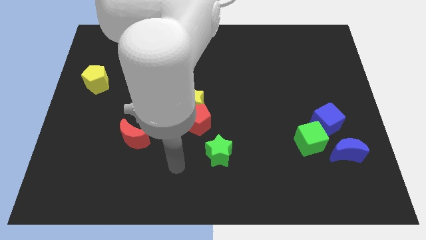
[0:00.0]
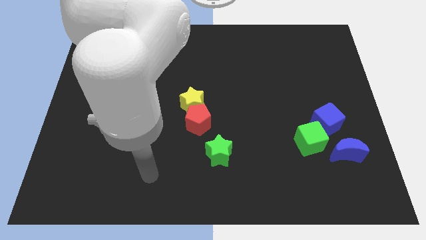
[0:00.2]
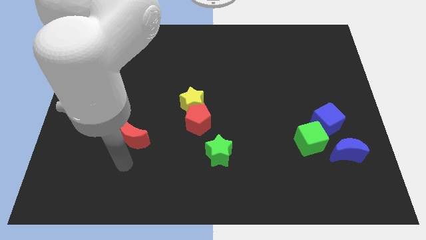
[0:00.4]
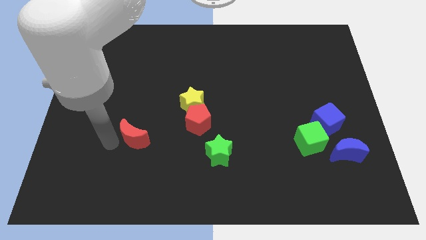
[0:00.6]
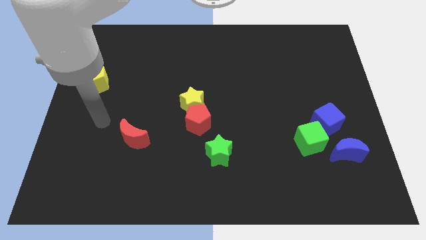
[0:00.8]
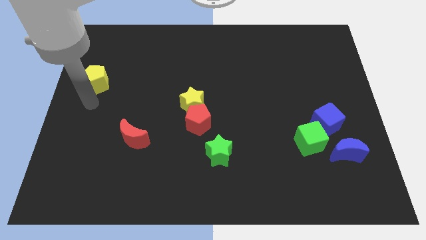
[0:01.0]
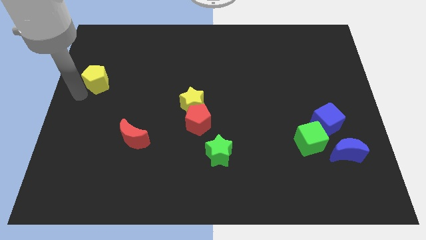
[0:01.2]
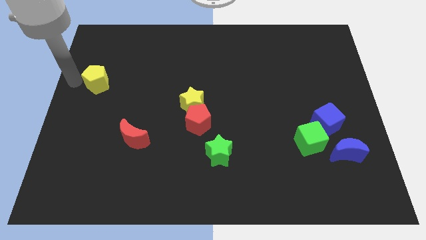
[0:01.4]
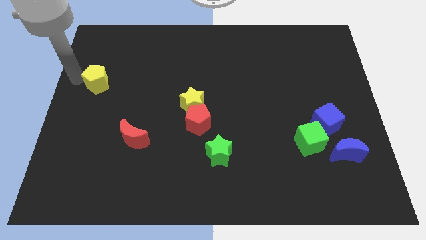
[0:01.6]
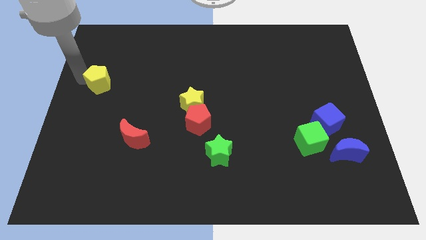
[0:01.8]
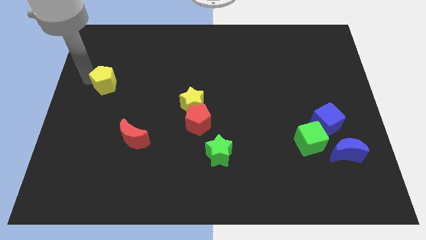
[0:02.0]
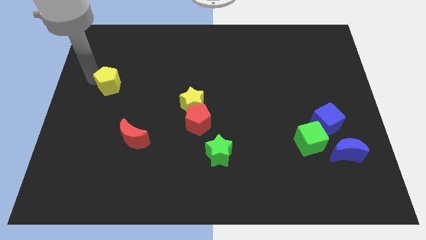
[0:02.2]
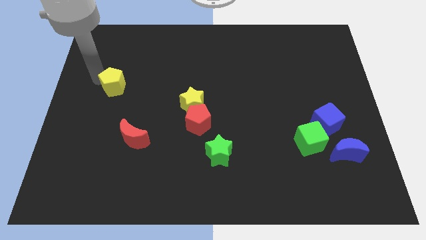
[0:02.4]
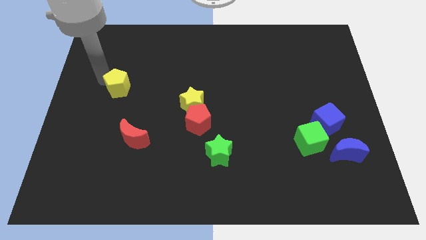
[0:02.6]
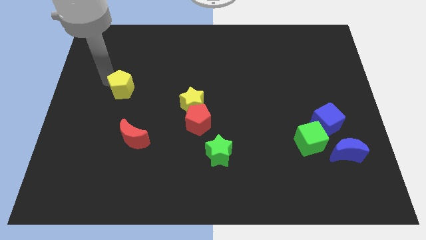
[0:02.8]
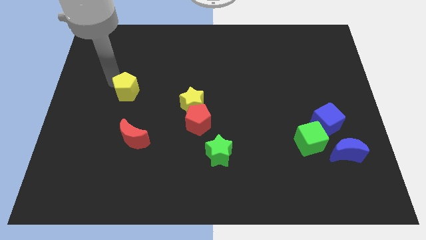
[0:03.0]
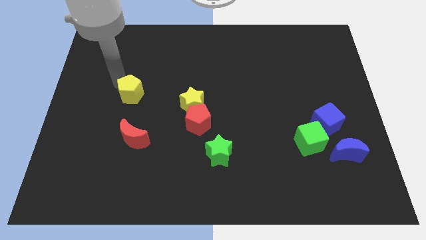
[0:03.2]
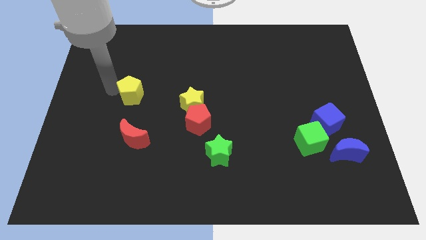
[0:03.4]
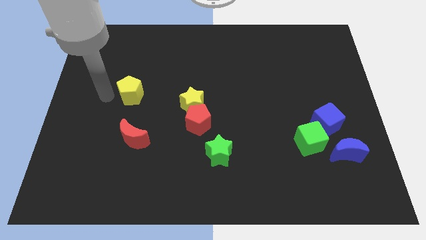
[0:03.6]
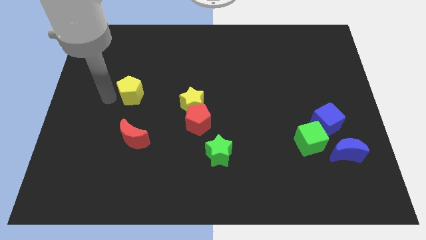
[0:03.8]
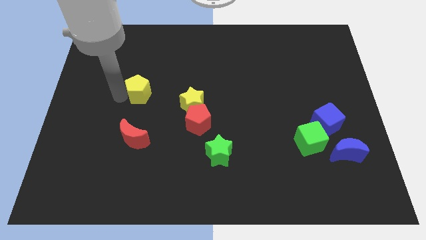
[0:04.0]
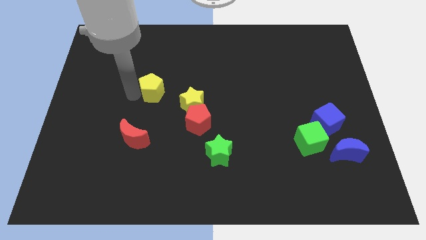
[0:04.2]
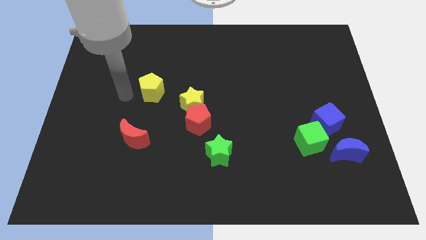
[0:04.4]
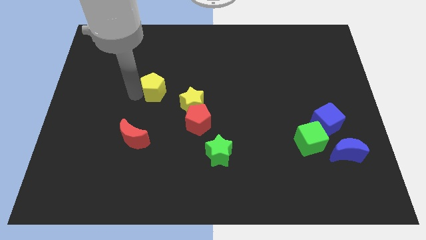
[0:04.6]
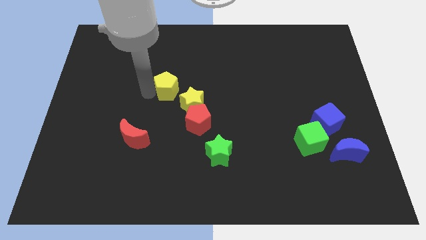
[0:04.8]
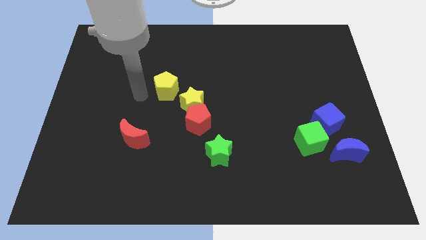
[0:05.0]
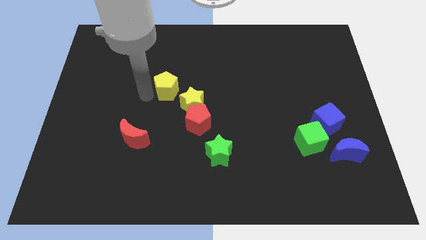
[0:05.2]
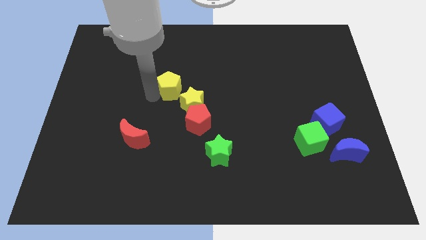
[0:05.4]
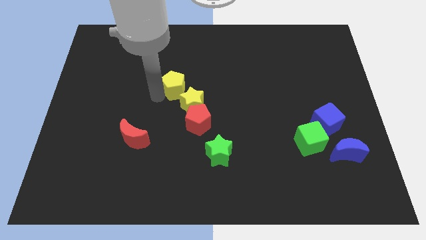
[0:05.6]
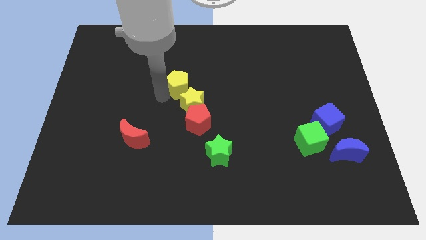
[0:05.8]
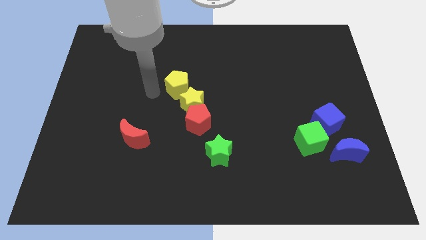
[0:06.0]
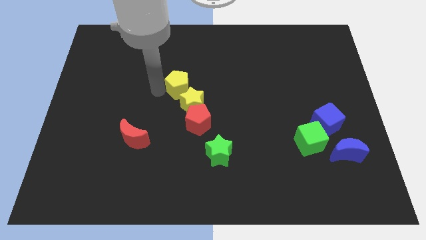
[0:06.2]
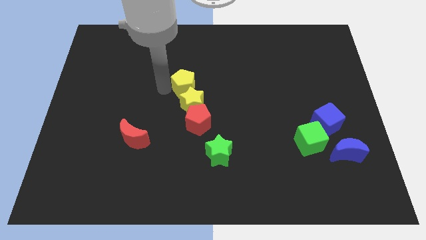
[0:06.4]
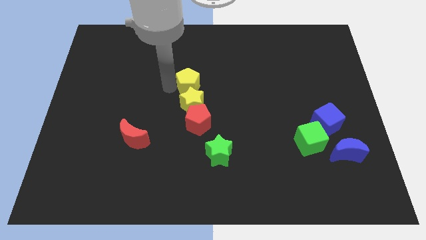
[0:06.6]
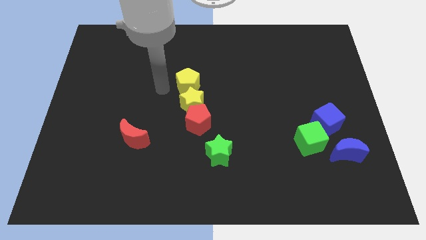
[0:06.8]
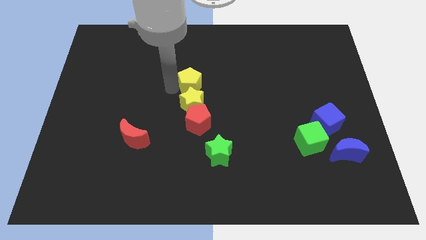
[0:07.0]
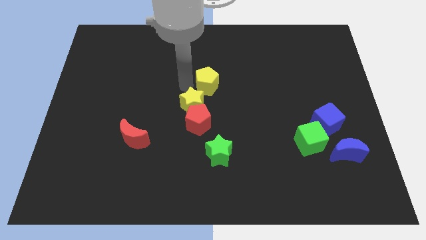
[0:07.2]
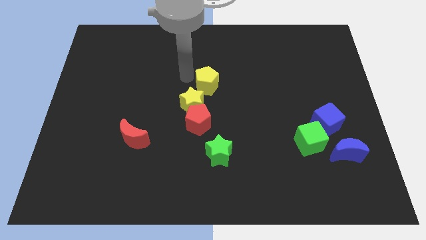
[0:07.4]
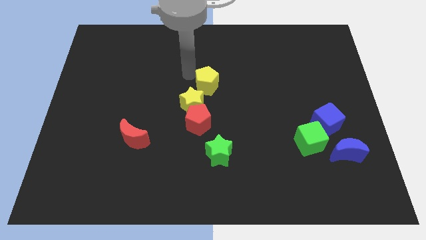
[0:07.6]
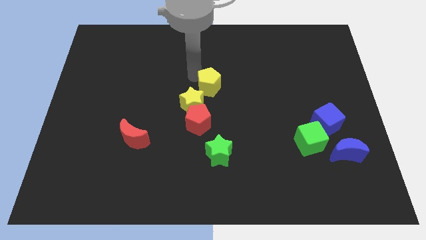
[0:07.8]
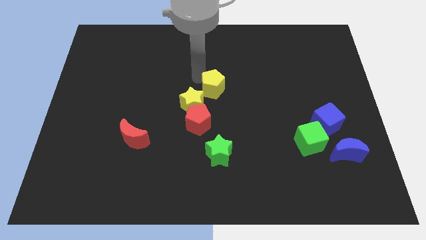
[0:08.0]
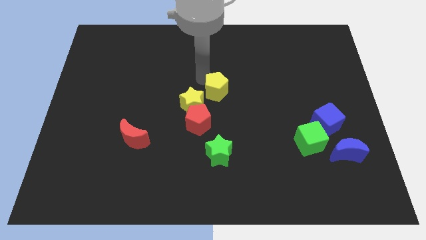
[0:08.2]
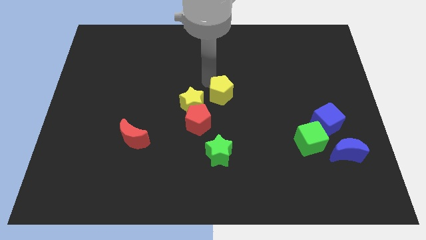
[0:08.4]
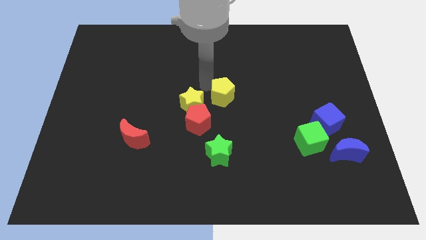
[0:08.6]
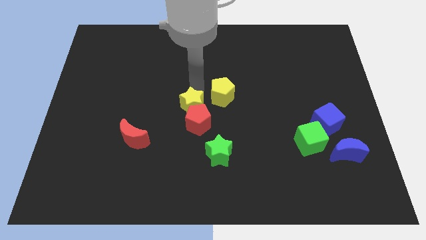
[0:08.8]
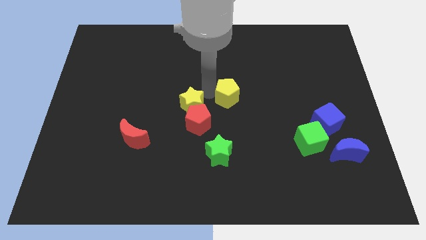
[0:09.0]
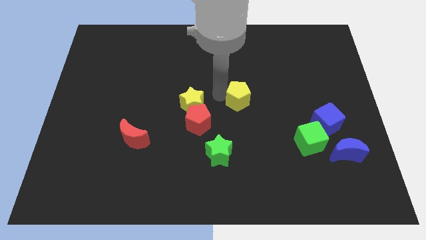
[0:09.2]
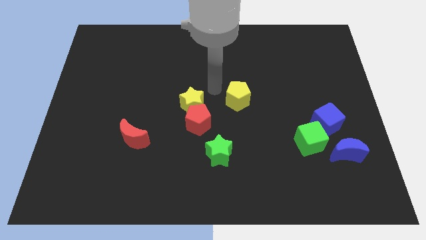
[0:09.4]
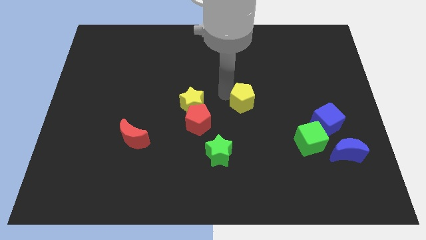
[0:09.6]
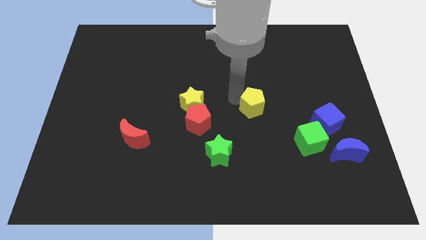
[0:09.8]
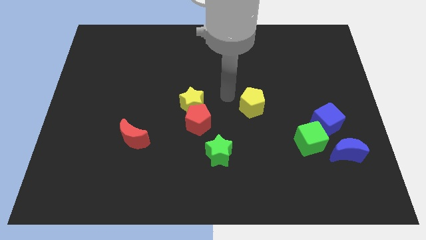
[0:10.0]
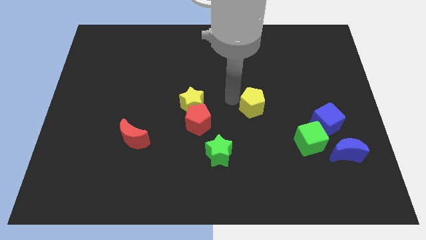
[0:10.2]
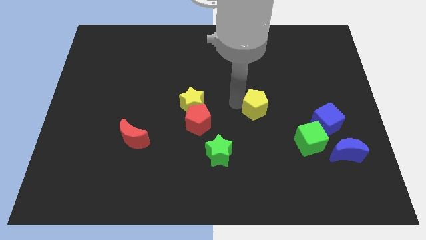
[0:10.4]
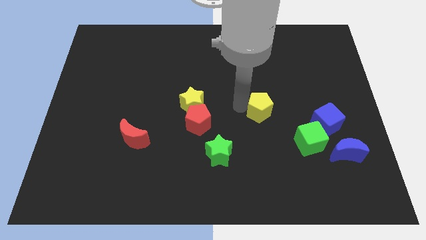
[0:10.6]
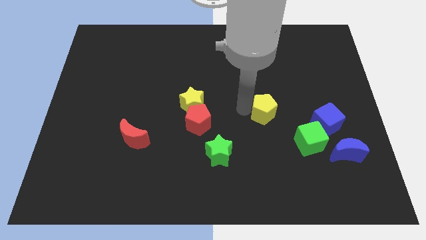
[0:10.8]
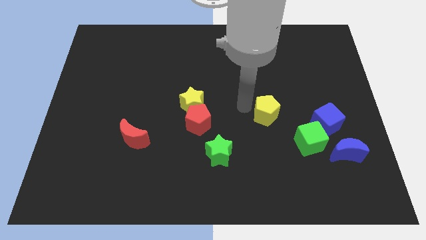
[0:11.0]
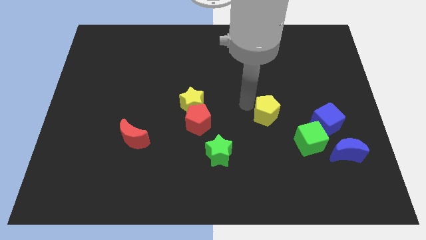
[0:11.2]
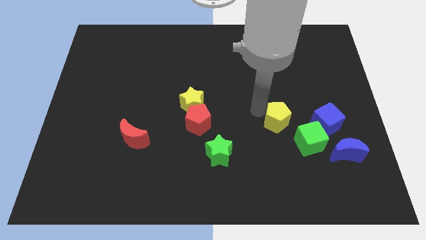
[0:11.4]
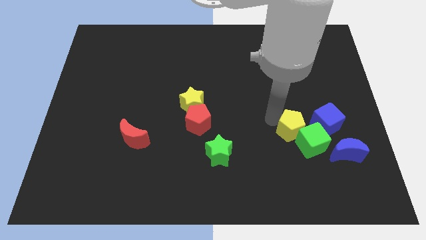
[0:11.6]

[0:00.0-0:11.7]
move the yellow pentagon next to the green cube

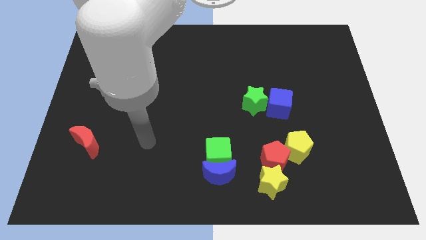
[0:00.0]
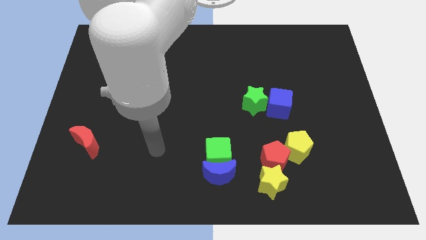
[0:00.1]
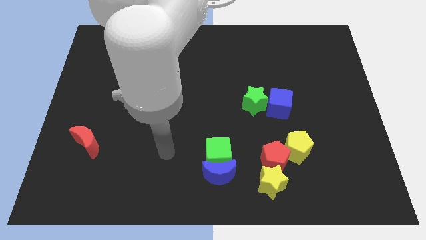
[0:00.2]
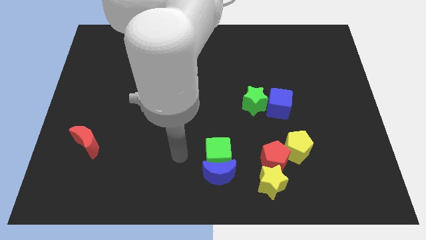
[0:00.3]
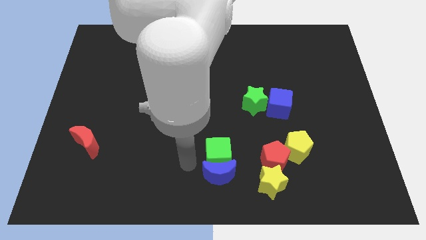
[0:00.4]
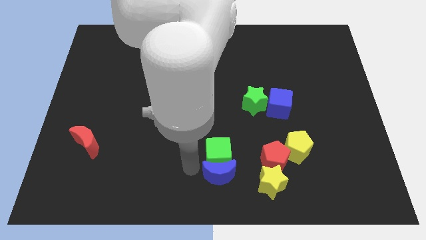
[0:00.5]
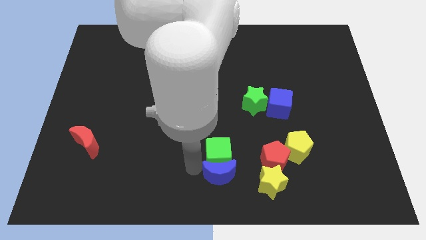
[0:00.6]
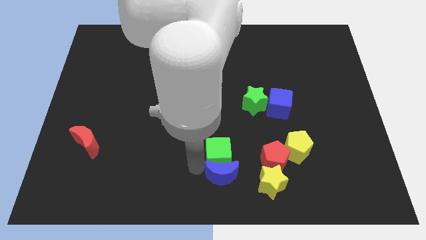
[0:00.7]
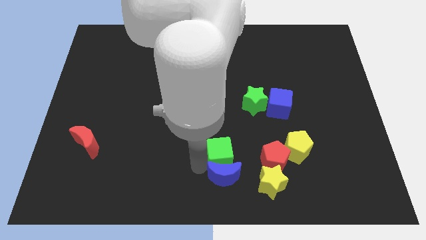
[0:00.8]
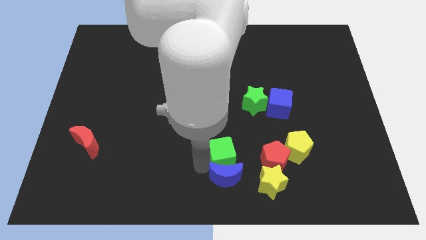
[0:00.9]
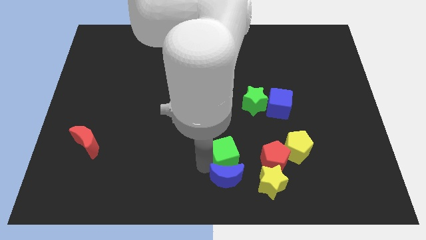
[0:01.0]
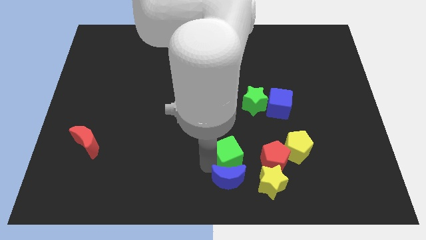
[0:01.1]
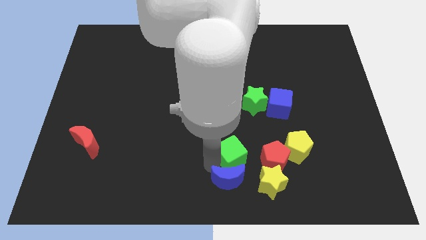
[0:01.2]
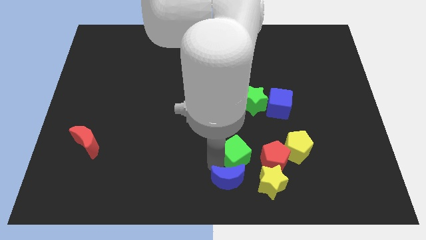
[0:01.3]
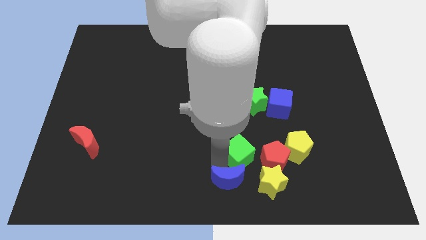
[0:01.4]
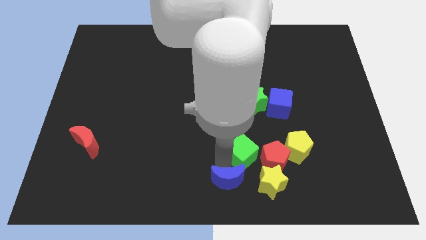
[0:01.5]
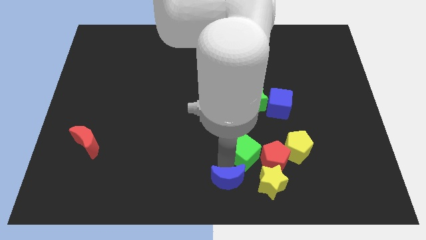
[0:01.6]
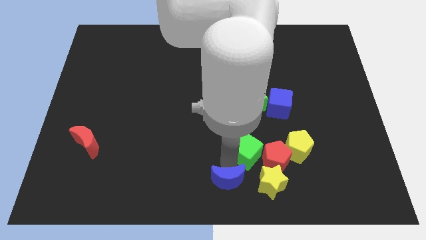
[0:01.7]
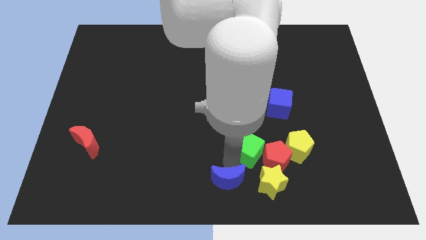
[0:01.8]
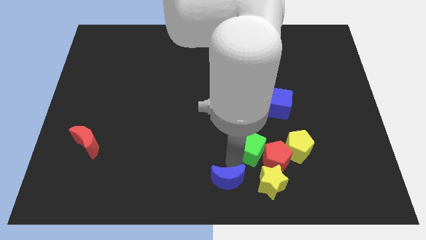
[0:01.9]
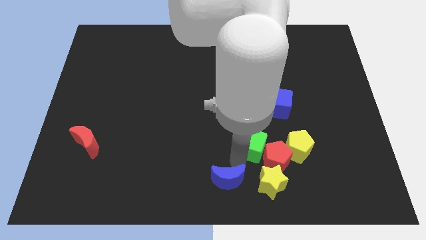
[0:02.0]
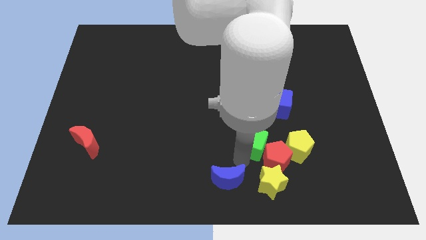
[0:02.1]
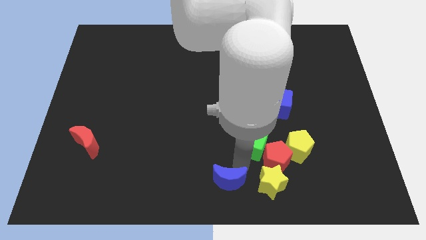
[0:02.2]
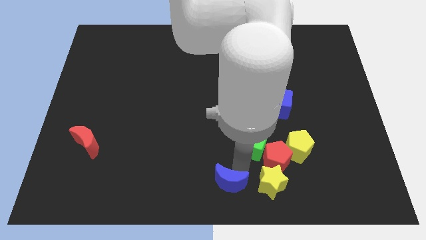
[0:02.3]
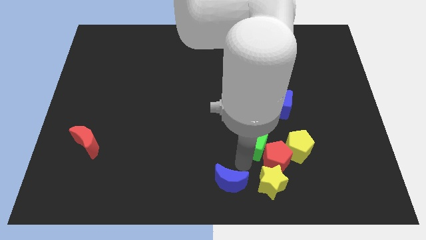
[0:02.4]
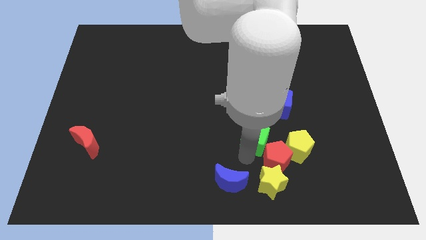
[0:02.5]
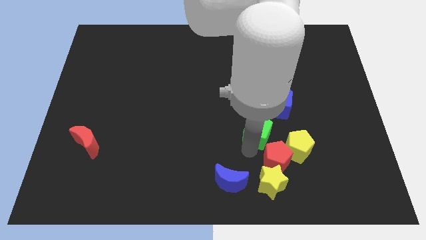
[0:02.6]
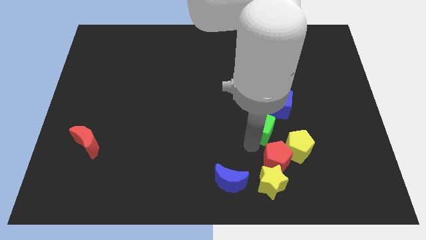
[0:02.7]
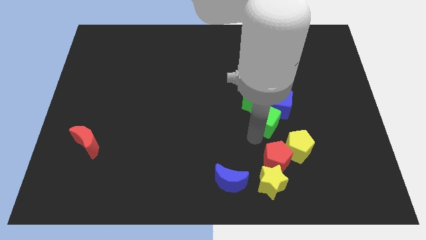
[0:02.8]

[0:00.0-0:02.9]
push the green cube close to the blue cube
